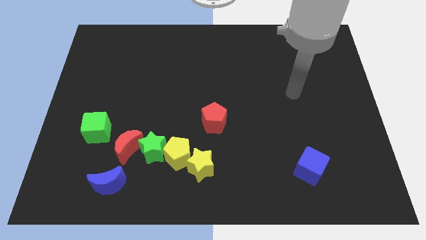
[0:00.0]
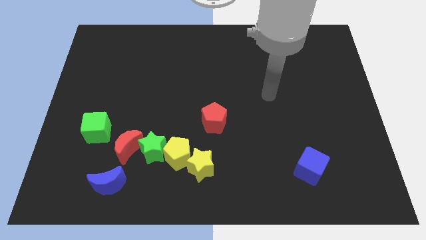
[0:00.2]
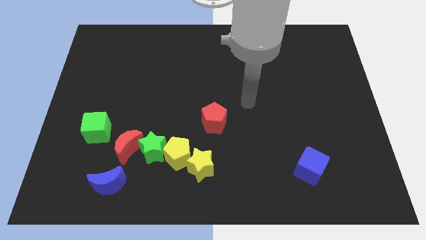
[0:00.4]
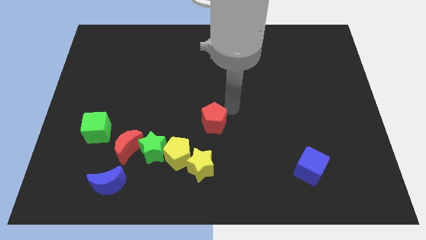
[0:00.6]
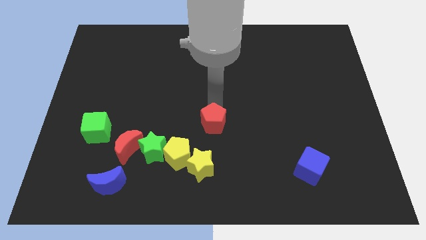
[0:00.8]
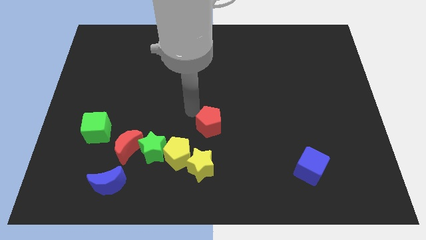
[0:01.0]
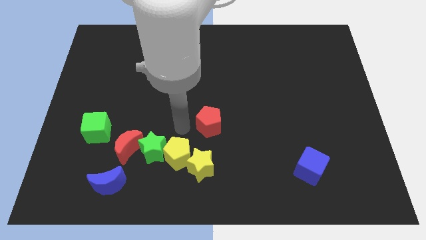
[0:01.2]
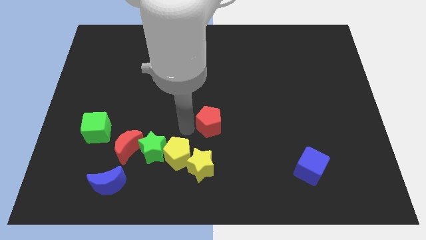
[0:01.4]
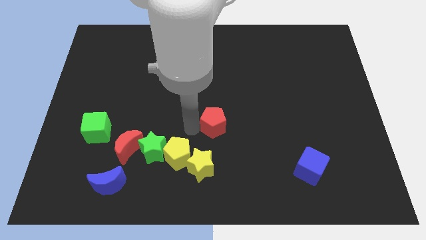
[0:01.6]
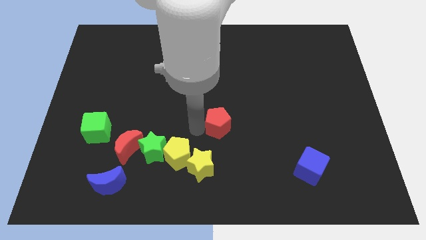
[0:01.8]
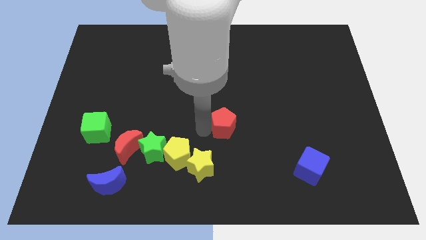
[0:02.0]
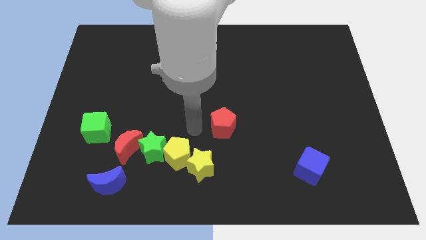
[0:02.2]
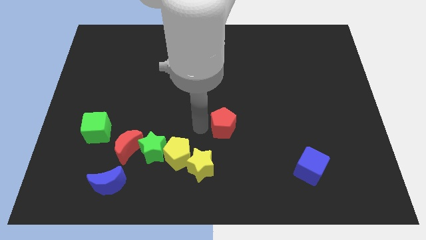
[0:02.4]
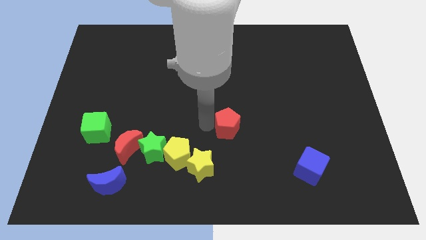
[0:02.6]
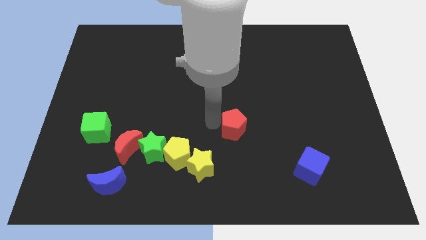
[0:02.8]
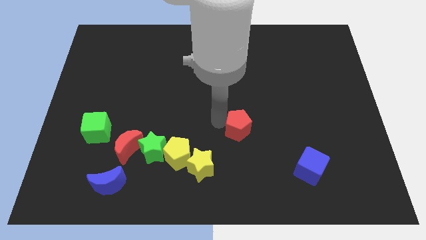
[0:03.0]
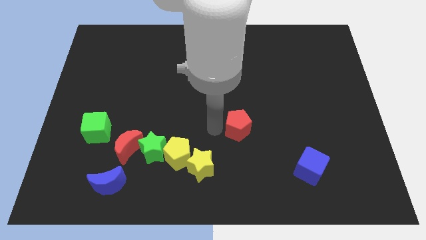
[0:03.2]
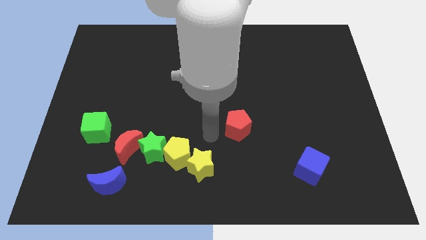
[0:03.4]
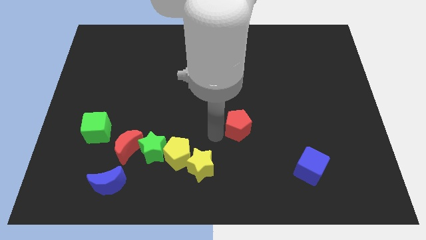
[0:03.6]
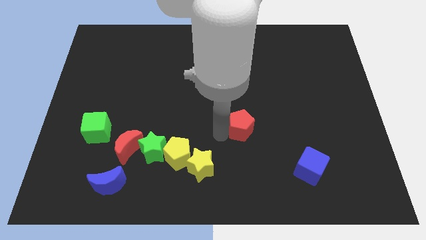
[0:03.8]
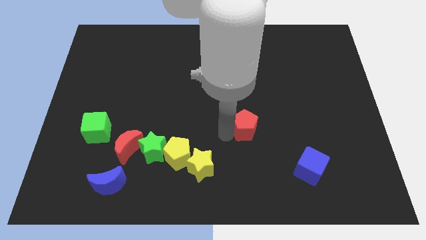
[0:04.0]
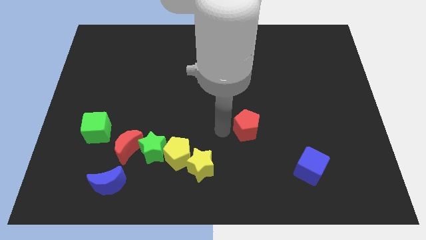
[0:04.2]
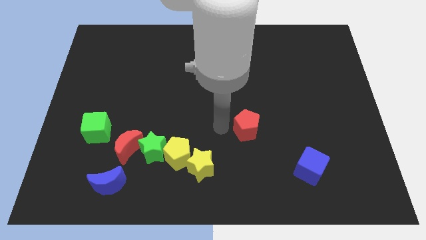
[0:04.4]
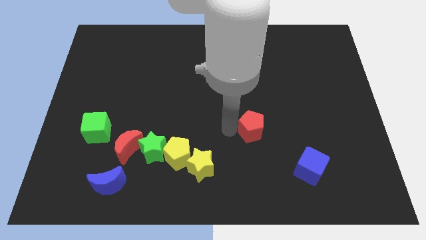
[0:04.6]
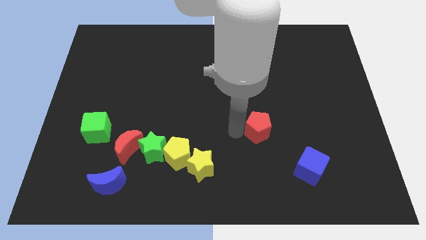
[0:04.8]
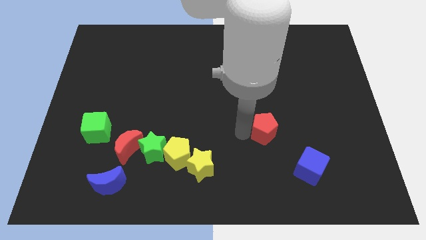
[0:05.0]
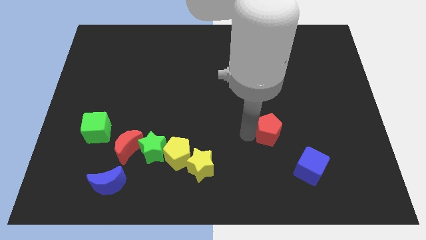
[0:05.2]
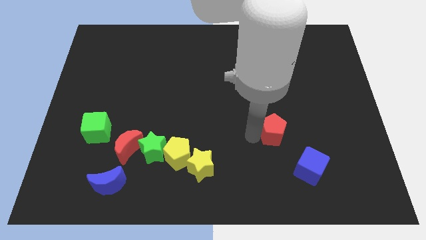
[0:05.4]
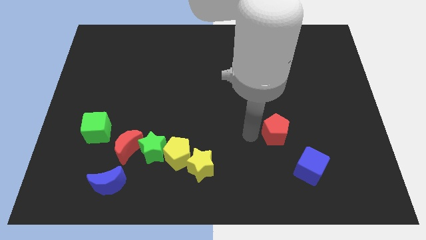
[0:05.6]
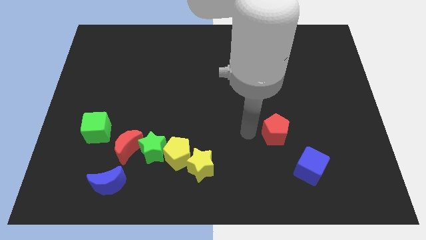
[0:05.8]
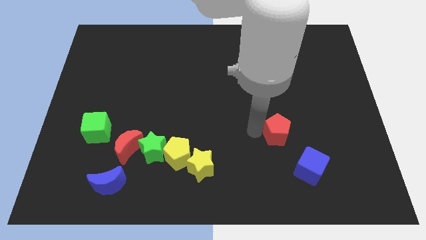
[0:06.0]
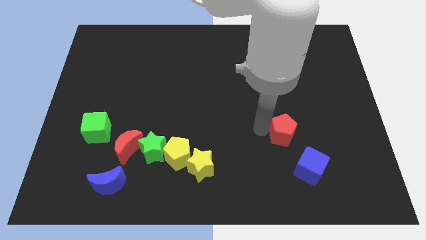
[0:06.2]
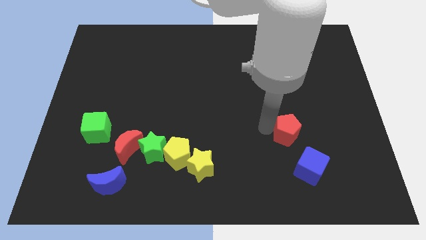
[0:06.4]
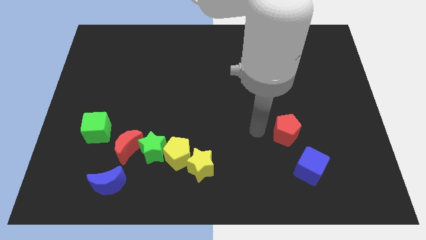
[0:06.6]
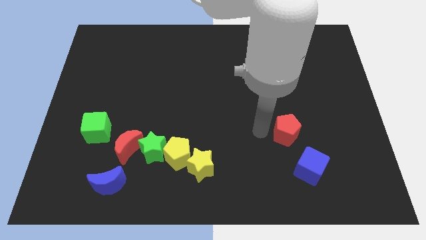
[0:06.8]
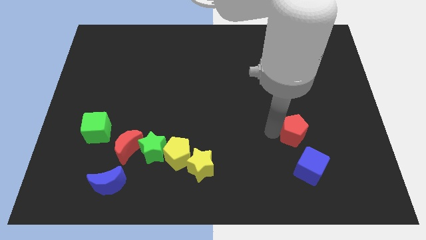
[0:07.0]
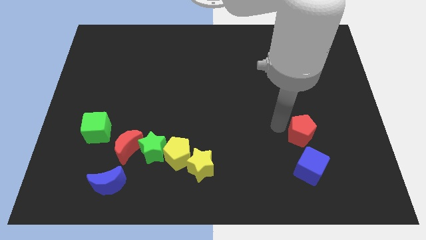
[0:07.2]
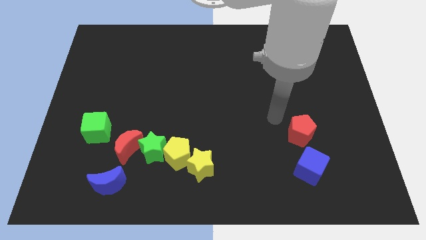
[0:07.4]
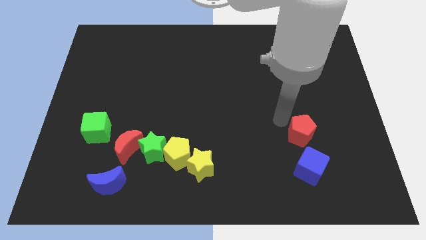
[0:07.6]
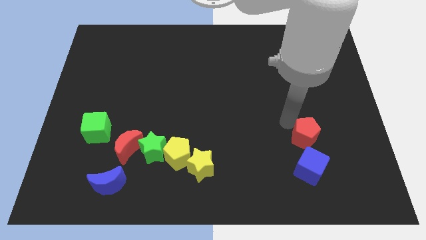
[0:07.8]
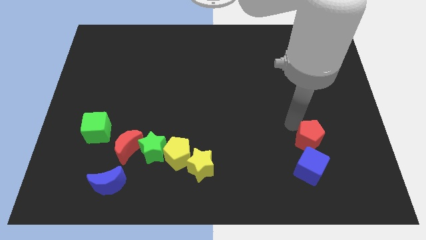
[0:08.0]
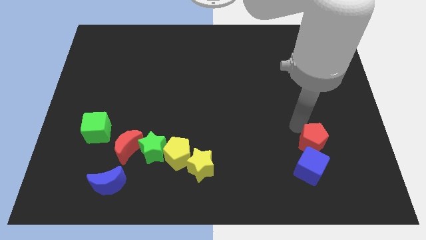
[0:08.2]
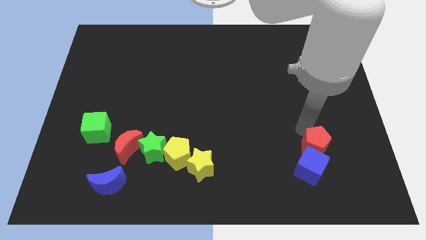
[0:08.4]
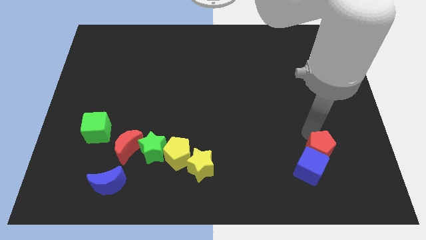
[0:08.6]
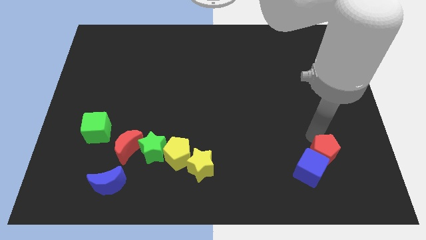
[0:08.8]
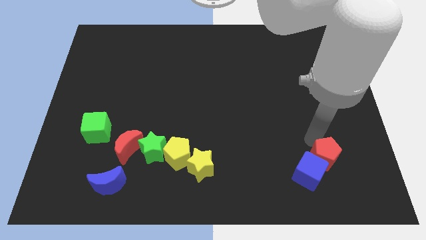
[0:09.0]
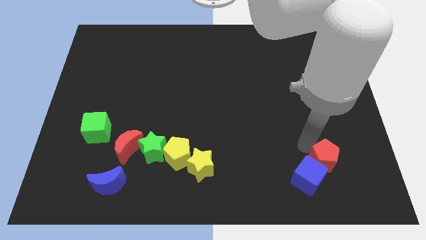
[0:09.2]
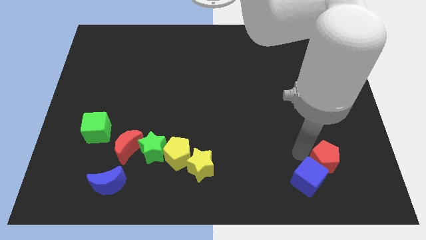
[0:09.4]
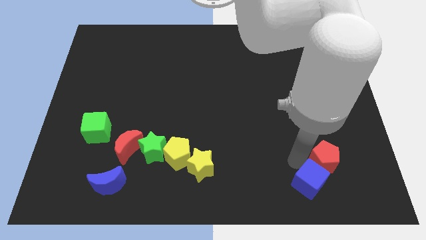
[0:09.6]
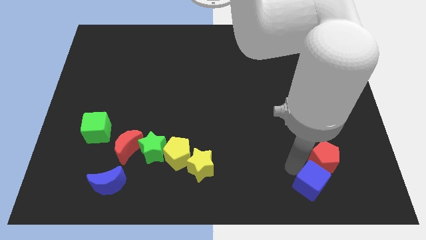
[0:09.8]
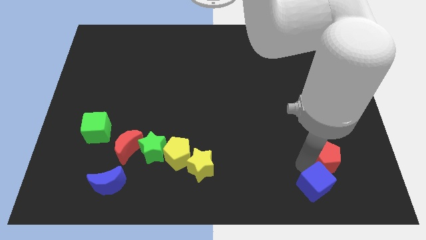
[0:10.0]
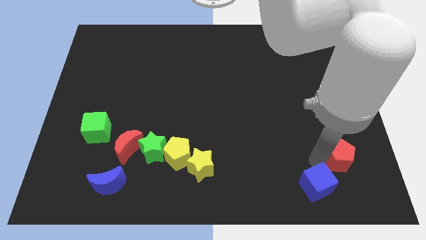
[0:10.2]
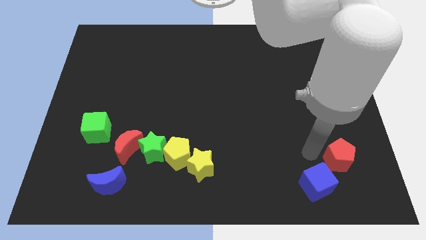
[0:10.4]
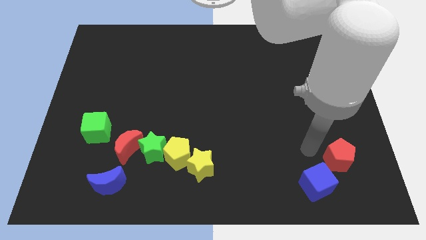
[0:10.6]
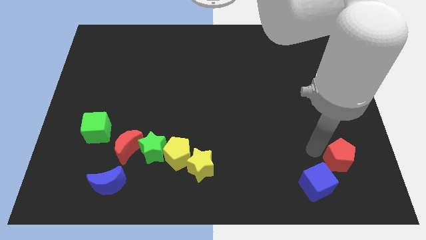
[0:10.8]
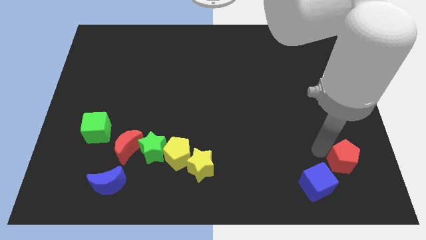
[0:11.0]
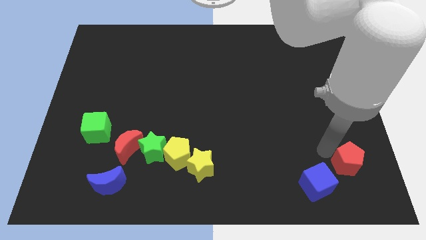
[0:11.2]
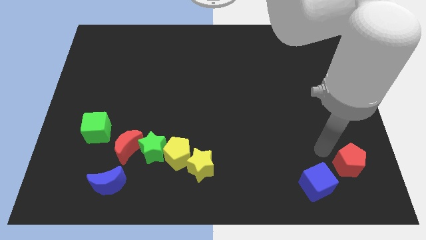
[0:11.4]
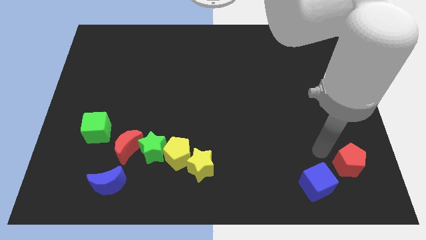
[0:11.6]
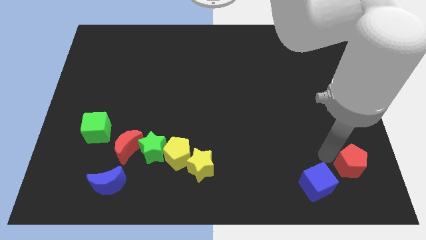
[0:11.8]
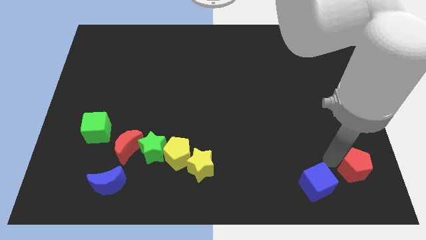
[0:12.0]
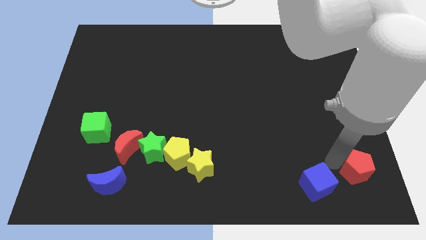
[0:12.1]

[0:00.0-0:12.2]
slide the red pentagon to the bottom right corner

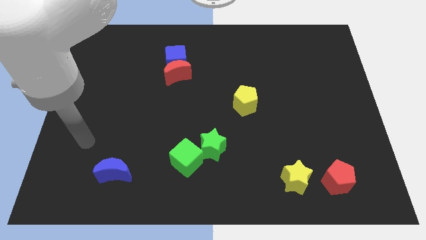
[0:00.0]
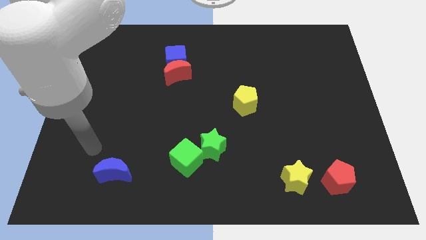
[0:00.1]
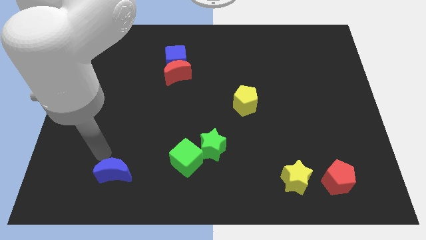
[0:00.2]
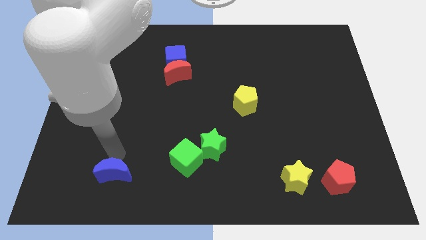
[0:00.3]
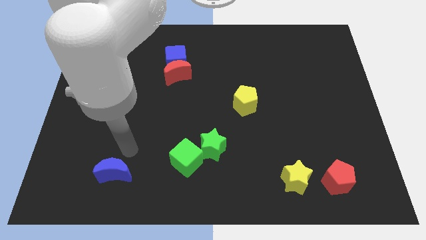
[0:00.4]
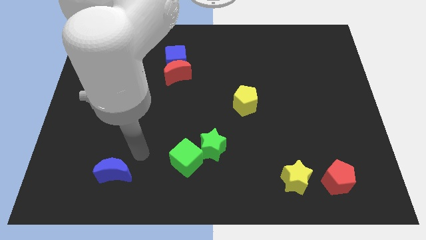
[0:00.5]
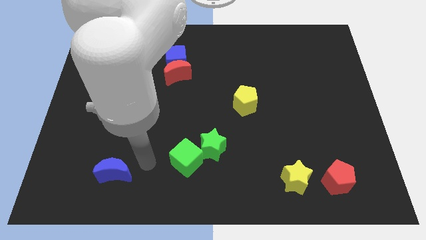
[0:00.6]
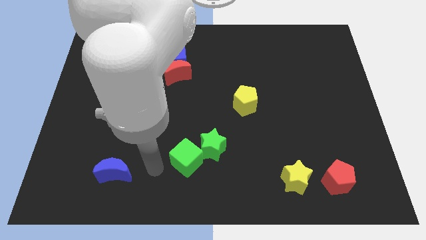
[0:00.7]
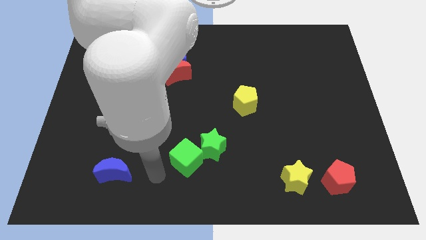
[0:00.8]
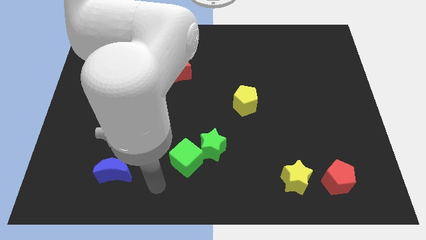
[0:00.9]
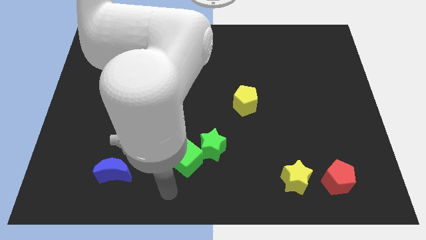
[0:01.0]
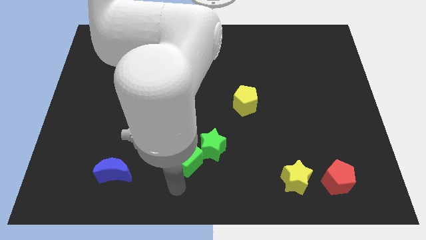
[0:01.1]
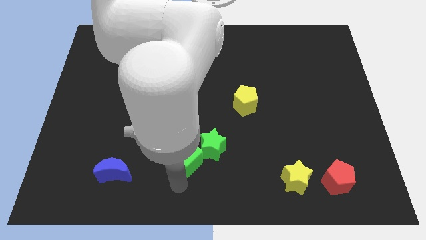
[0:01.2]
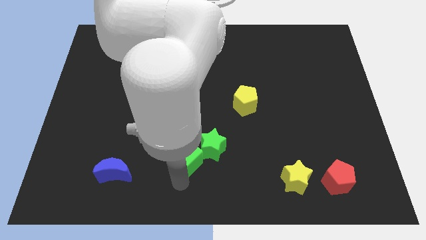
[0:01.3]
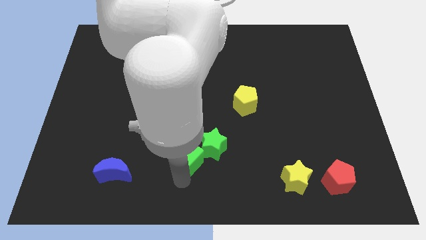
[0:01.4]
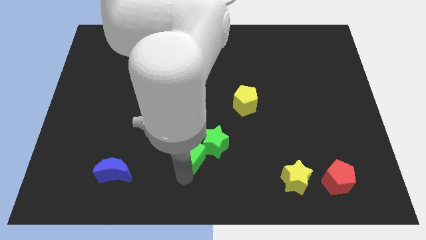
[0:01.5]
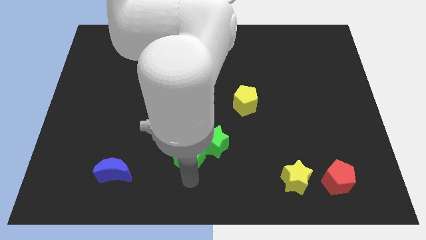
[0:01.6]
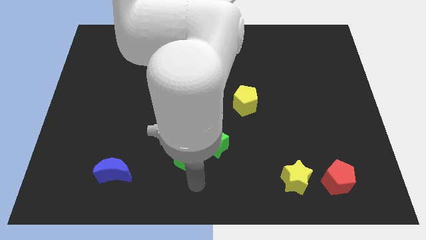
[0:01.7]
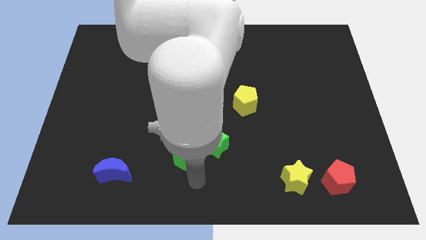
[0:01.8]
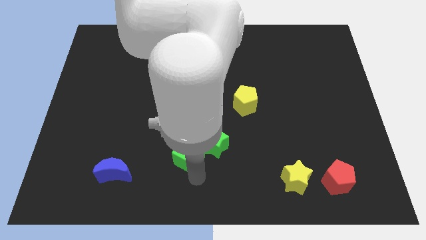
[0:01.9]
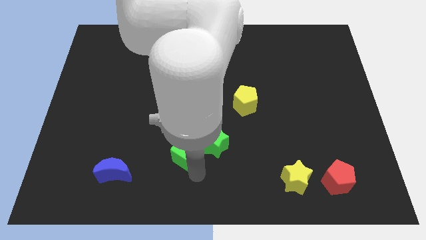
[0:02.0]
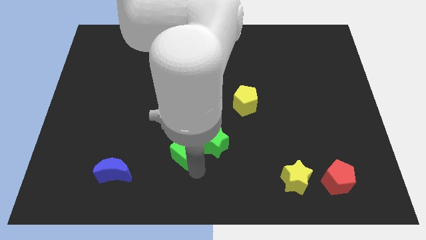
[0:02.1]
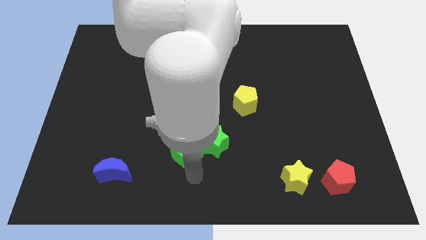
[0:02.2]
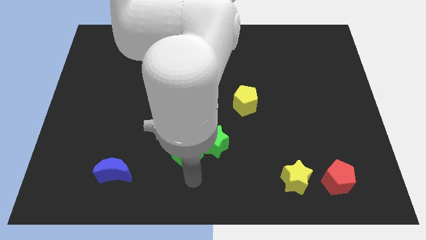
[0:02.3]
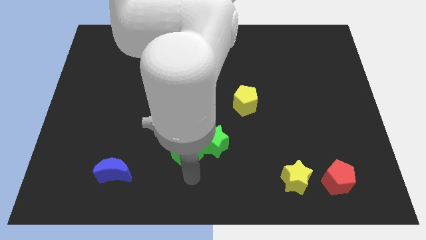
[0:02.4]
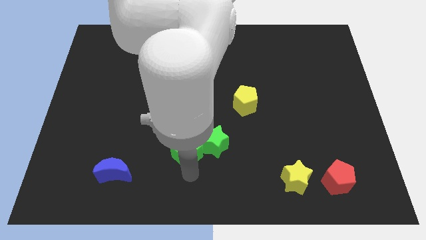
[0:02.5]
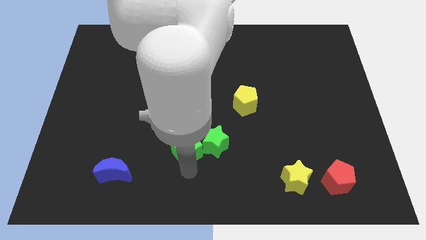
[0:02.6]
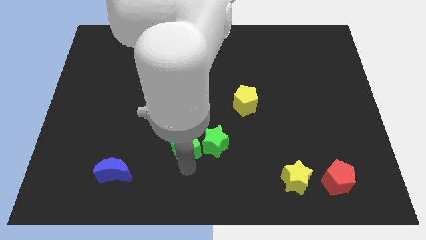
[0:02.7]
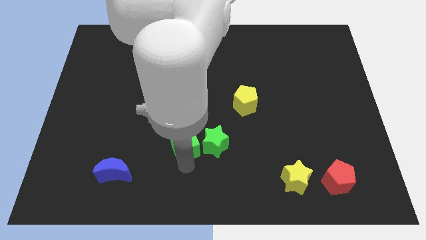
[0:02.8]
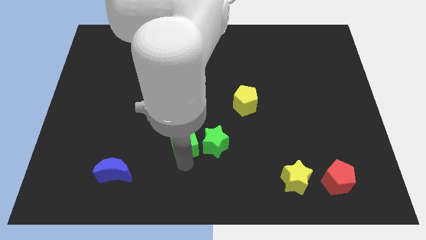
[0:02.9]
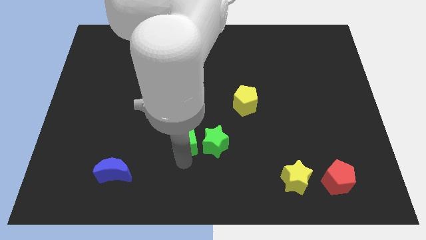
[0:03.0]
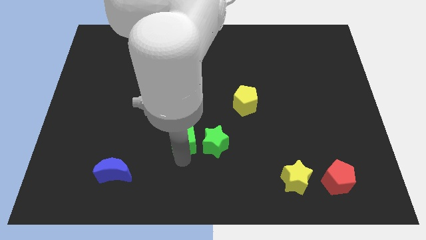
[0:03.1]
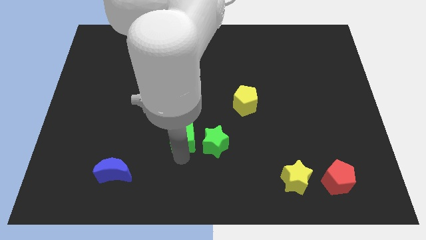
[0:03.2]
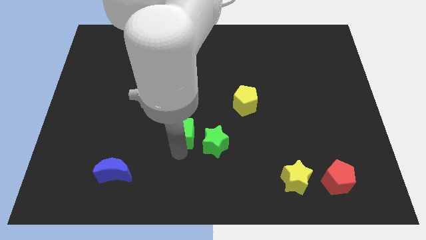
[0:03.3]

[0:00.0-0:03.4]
slide the green cube to the middle
